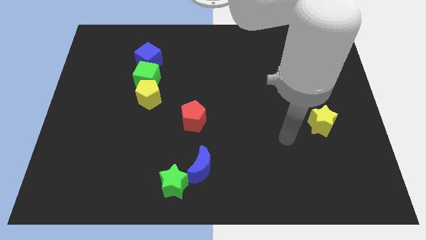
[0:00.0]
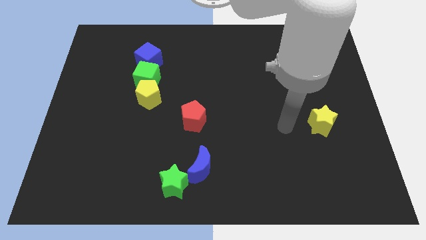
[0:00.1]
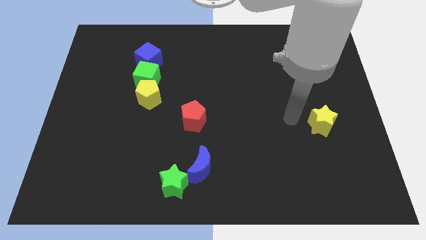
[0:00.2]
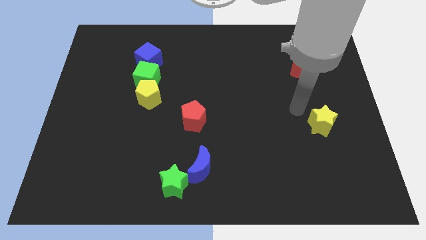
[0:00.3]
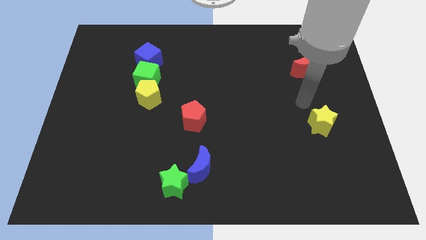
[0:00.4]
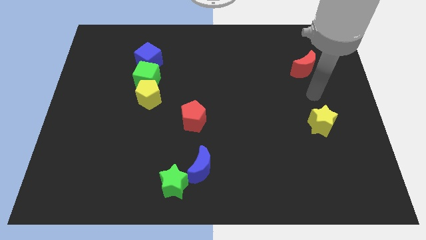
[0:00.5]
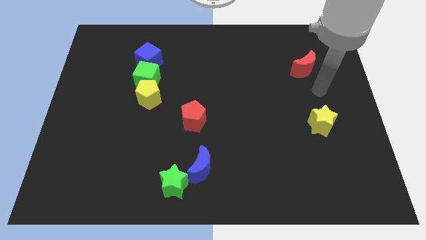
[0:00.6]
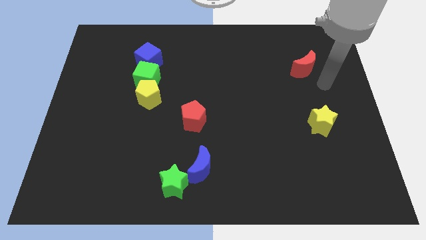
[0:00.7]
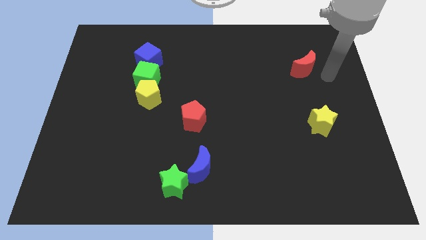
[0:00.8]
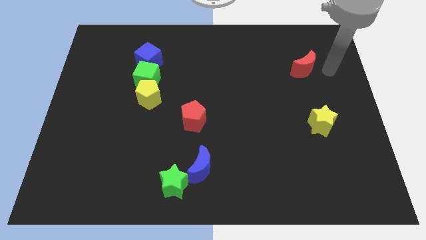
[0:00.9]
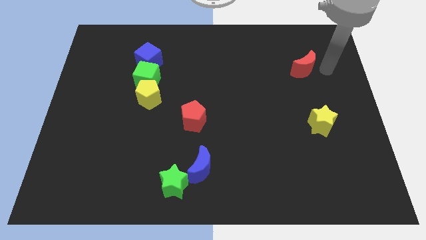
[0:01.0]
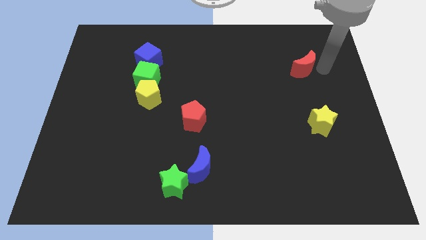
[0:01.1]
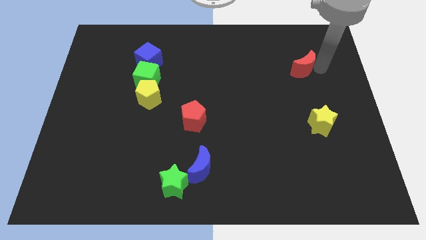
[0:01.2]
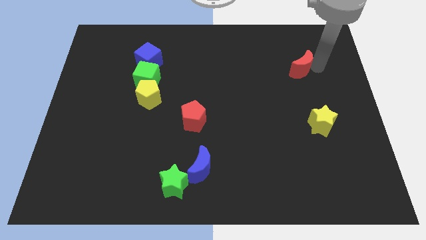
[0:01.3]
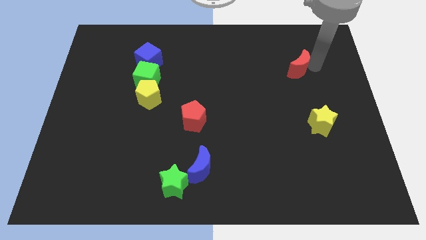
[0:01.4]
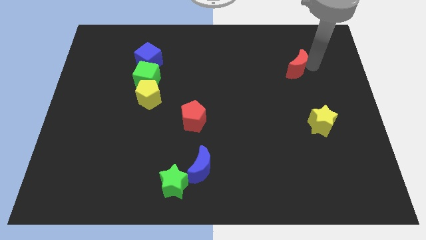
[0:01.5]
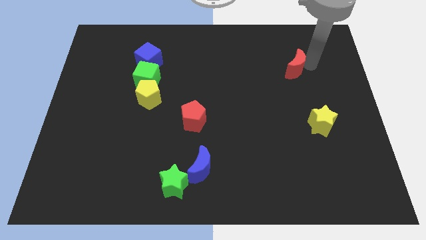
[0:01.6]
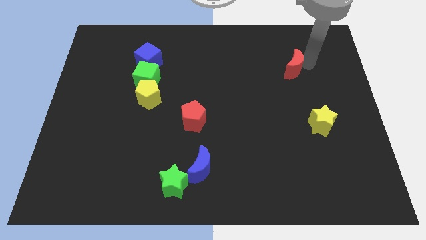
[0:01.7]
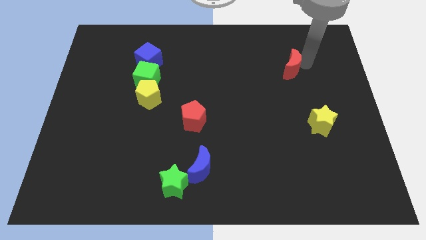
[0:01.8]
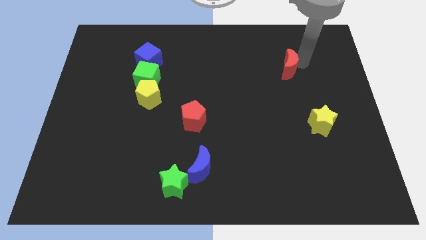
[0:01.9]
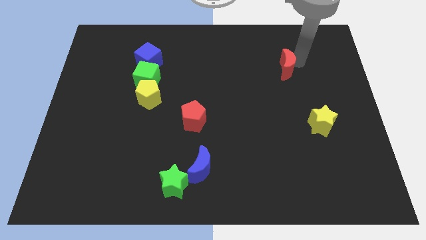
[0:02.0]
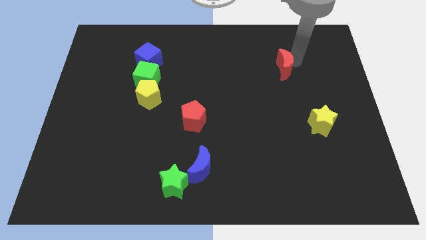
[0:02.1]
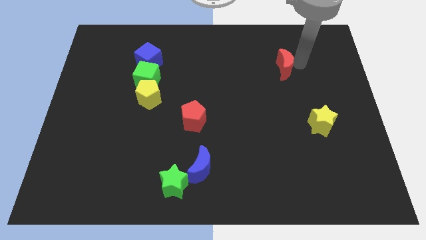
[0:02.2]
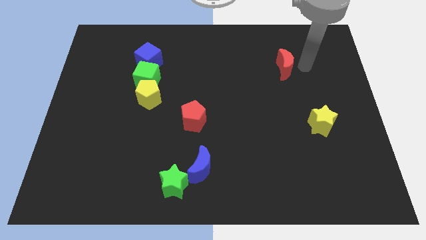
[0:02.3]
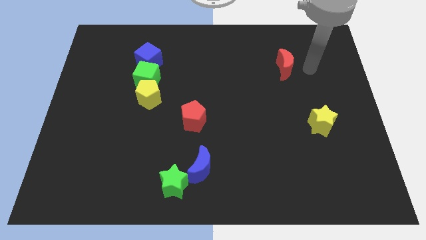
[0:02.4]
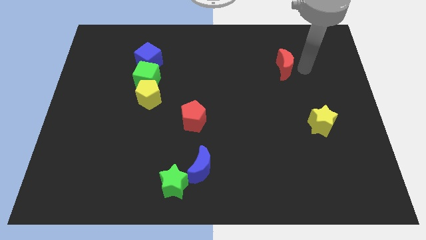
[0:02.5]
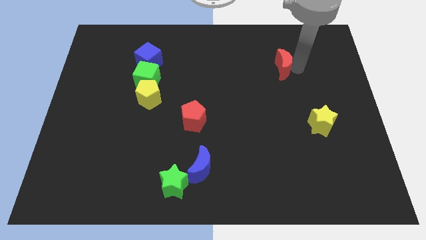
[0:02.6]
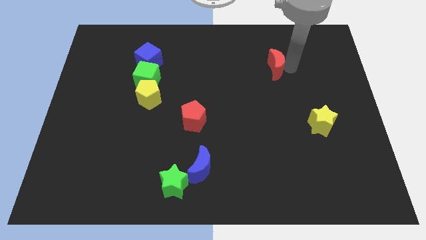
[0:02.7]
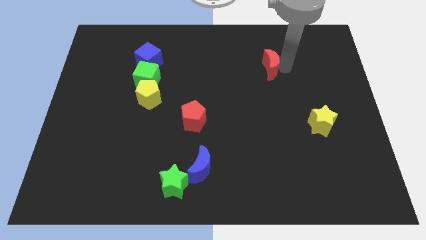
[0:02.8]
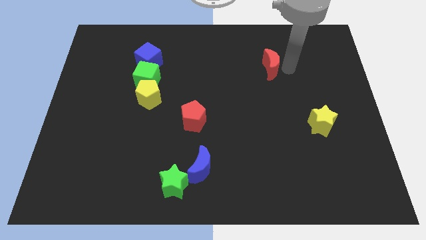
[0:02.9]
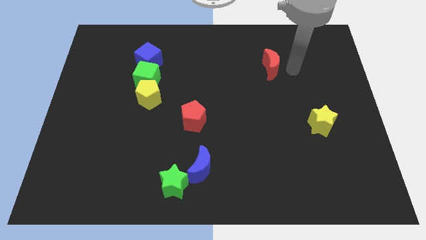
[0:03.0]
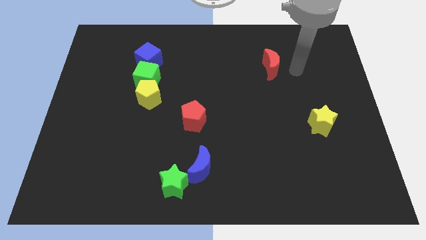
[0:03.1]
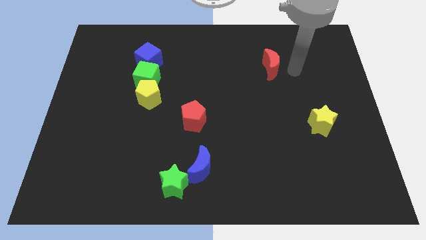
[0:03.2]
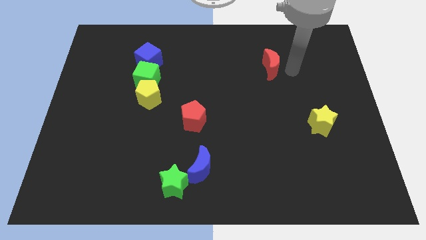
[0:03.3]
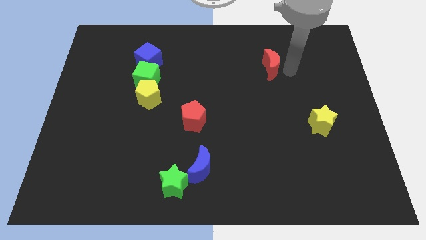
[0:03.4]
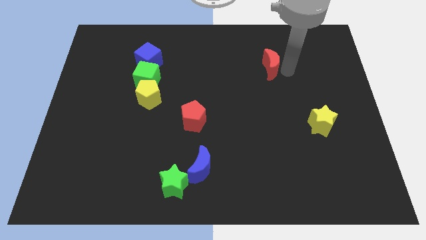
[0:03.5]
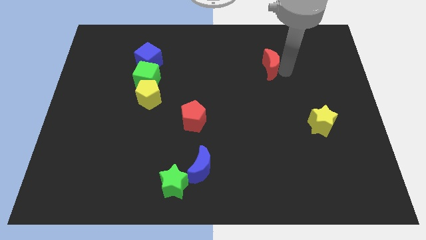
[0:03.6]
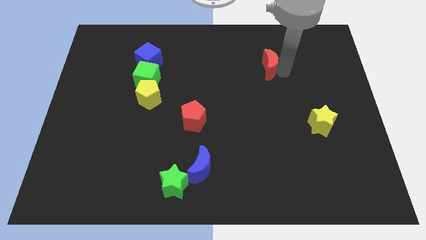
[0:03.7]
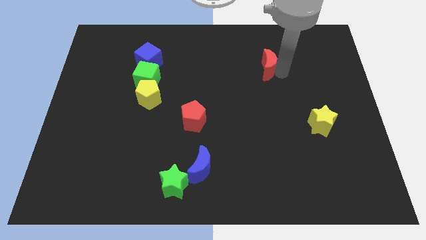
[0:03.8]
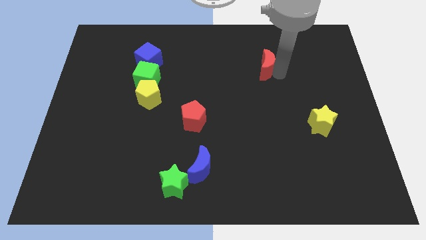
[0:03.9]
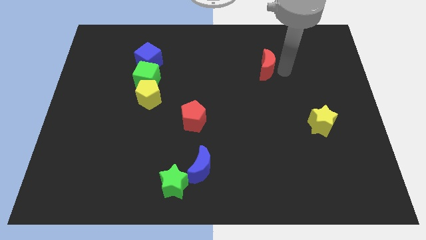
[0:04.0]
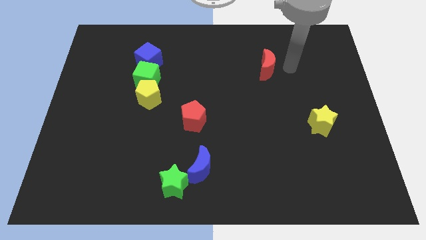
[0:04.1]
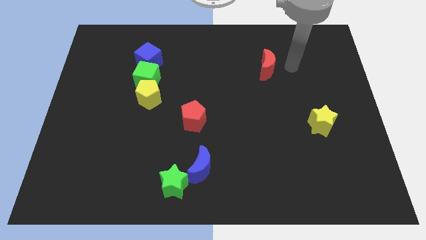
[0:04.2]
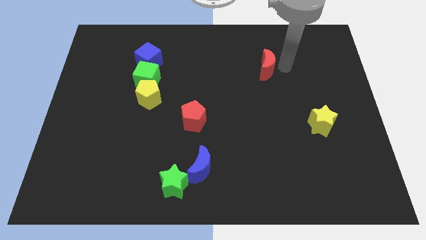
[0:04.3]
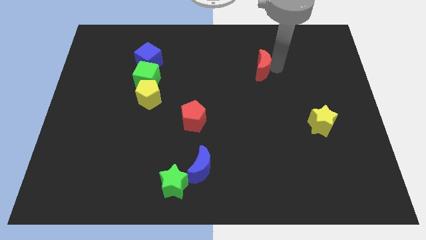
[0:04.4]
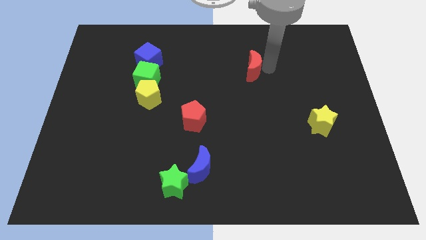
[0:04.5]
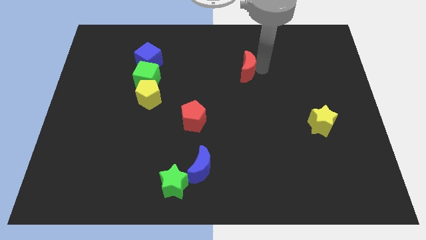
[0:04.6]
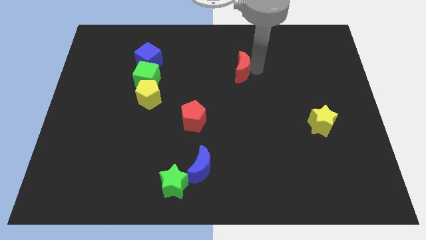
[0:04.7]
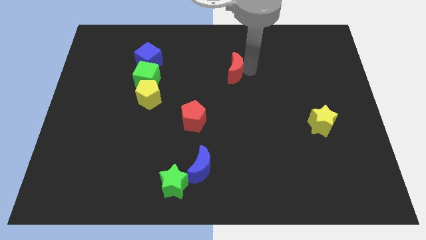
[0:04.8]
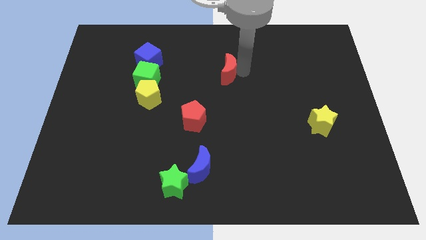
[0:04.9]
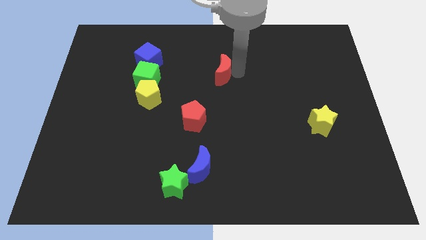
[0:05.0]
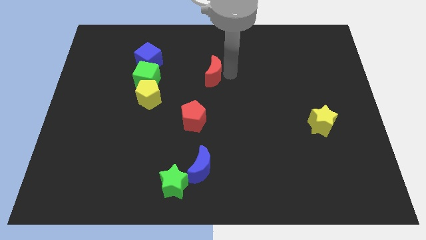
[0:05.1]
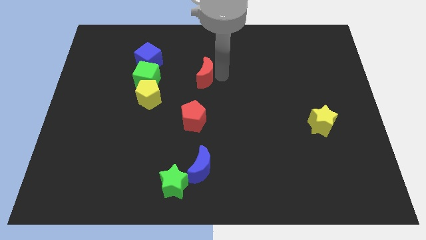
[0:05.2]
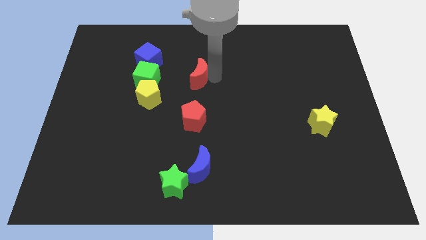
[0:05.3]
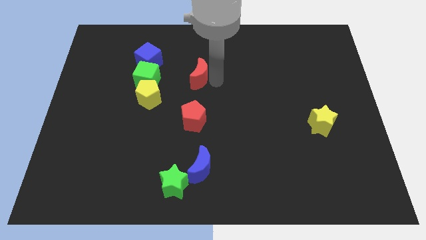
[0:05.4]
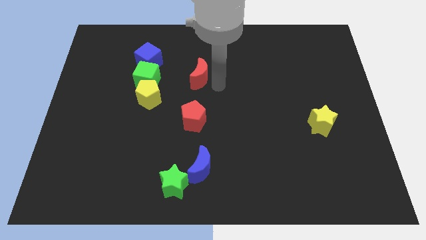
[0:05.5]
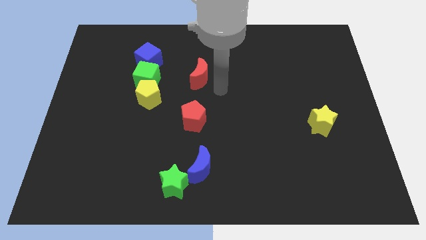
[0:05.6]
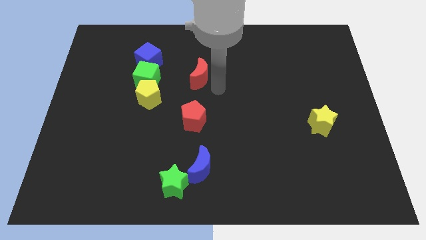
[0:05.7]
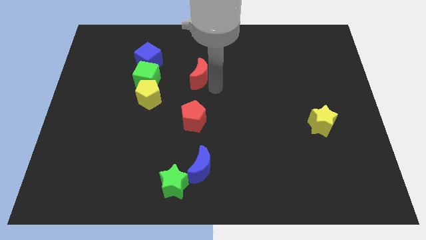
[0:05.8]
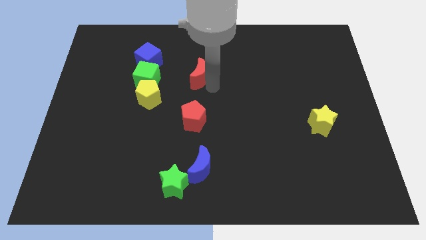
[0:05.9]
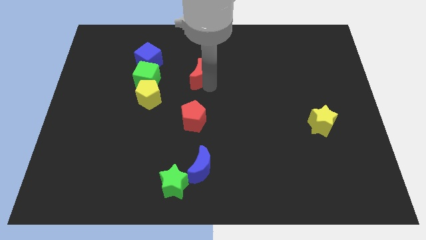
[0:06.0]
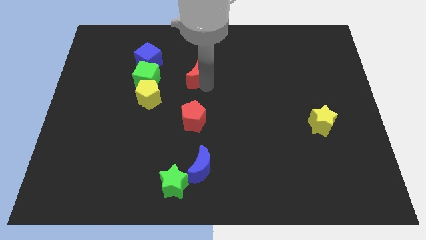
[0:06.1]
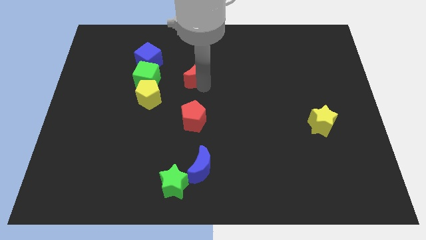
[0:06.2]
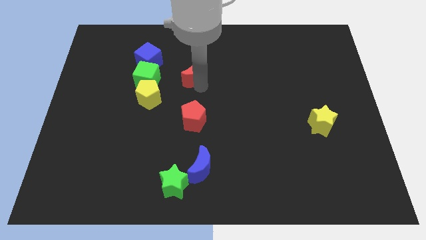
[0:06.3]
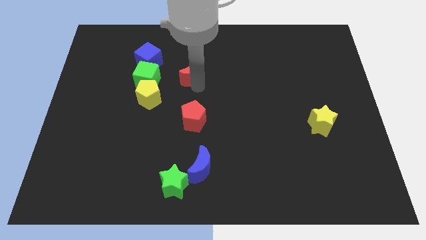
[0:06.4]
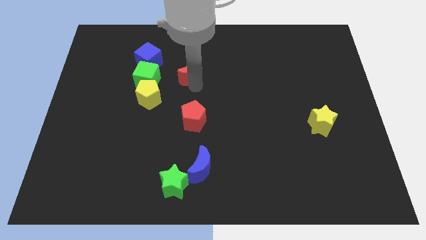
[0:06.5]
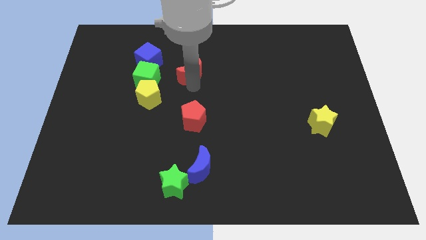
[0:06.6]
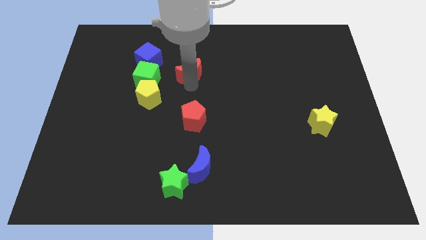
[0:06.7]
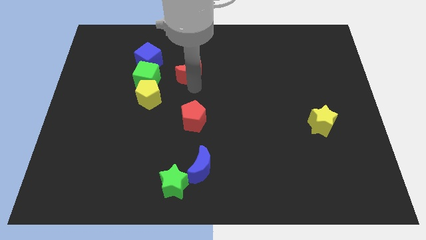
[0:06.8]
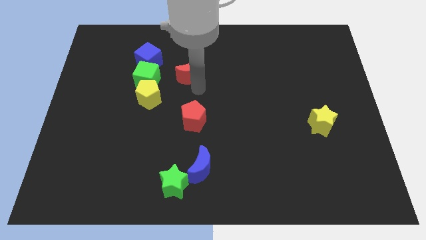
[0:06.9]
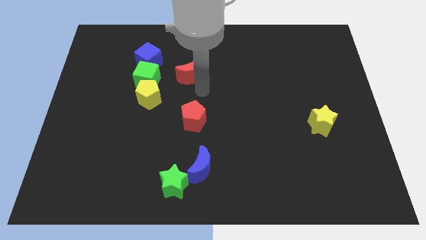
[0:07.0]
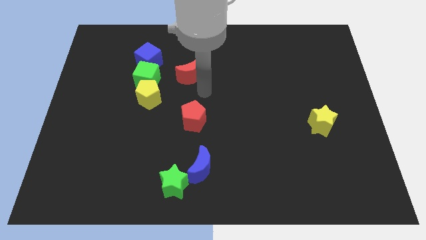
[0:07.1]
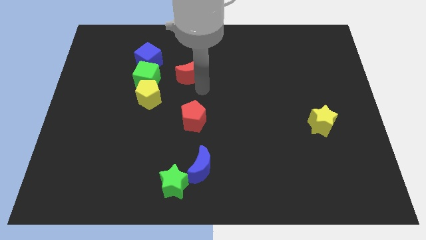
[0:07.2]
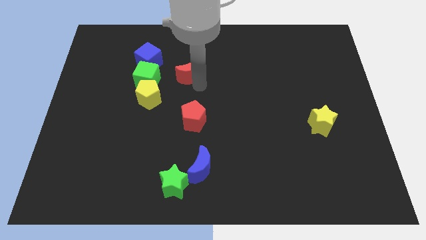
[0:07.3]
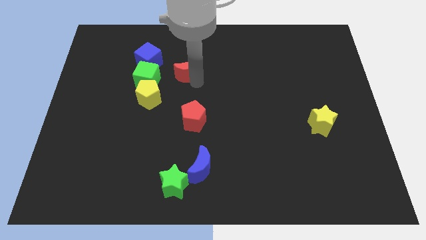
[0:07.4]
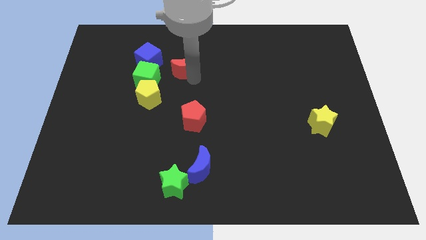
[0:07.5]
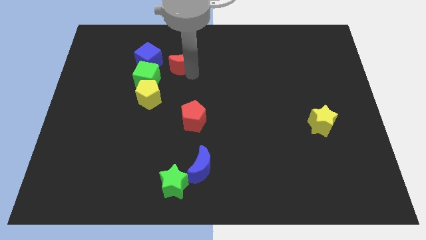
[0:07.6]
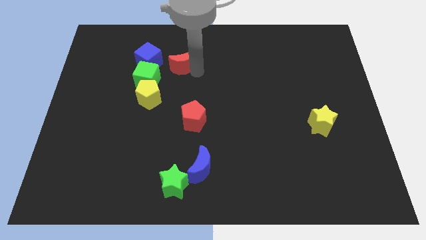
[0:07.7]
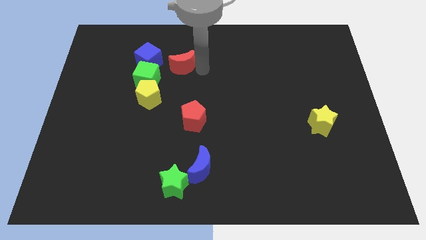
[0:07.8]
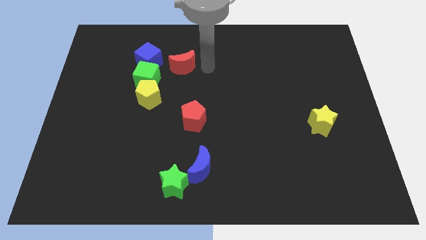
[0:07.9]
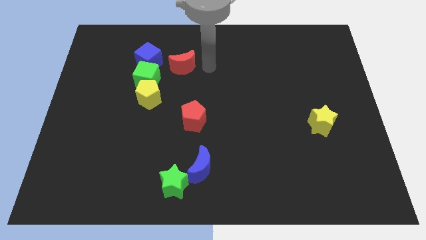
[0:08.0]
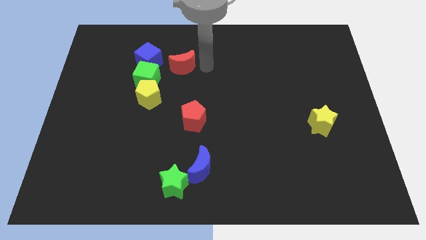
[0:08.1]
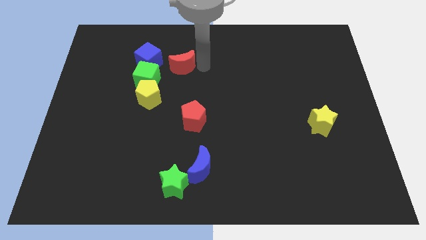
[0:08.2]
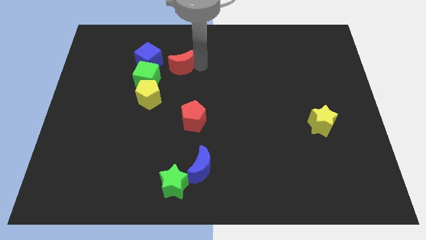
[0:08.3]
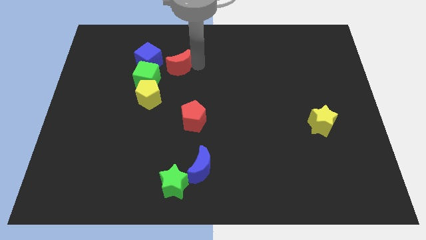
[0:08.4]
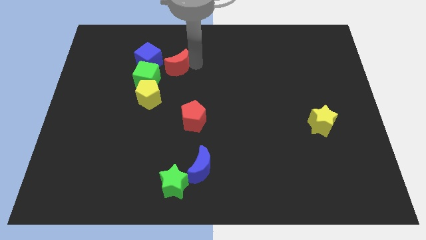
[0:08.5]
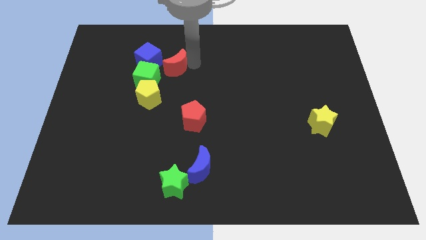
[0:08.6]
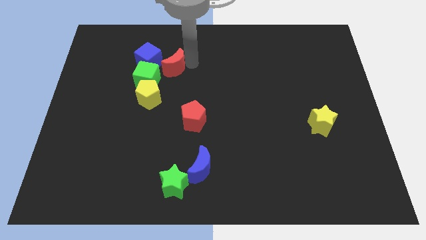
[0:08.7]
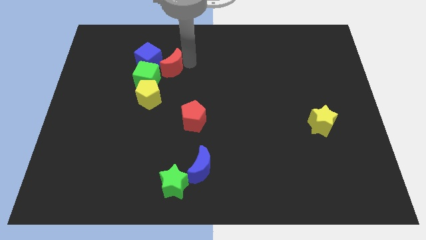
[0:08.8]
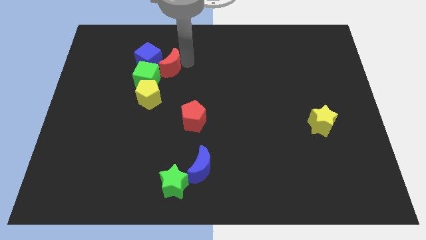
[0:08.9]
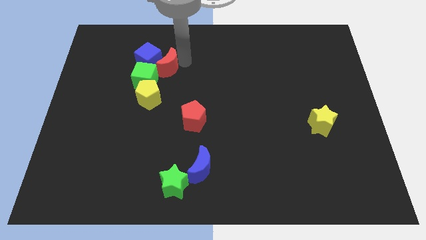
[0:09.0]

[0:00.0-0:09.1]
push the red moon to the blue cube
